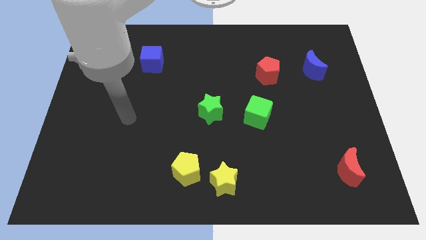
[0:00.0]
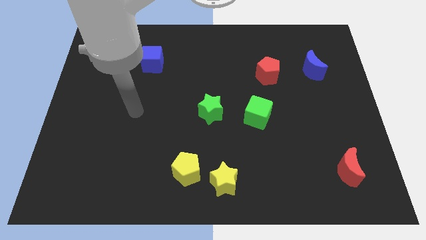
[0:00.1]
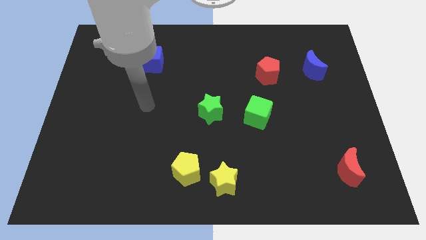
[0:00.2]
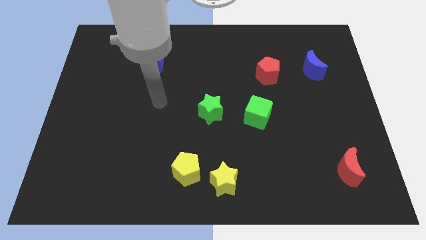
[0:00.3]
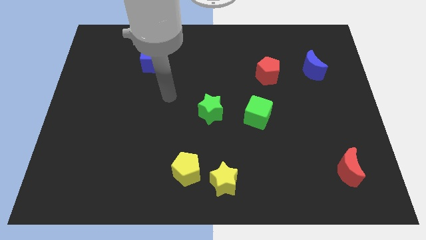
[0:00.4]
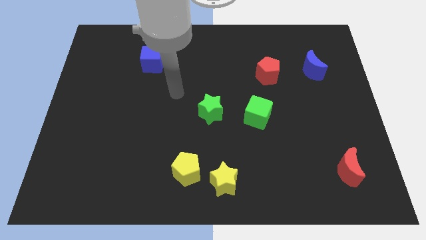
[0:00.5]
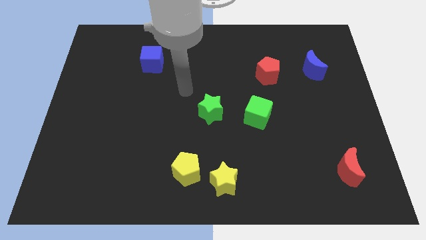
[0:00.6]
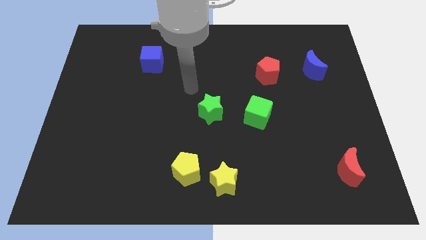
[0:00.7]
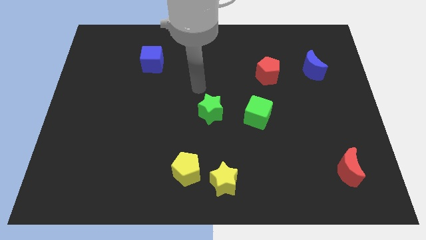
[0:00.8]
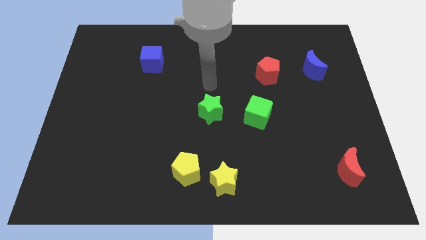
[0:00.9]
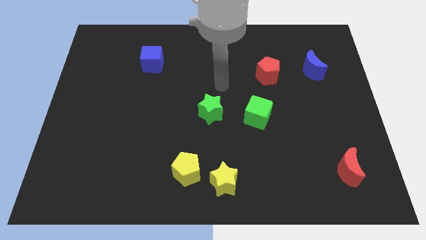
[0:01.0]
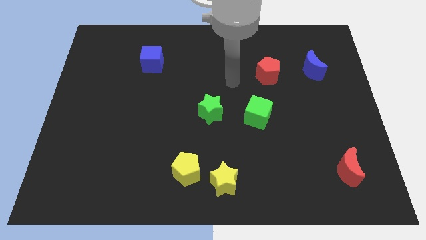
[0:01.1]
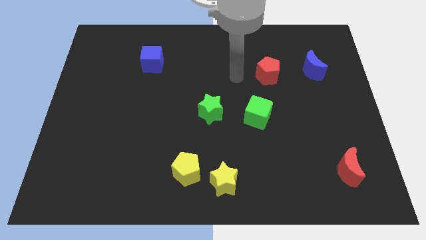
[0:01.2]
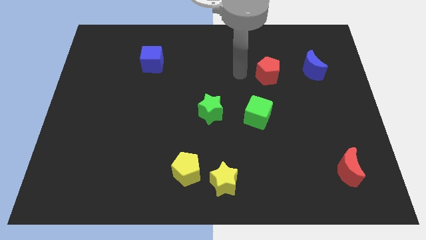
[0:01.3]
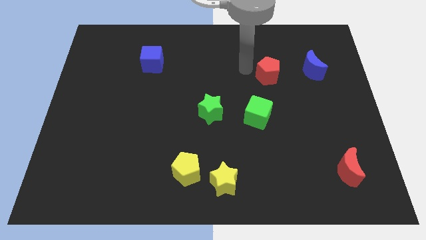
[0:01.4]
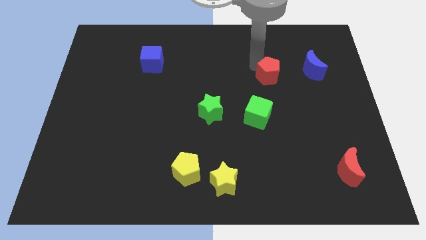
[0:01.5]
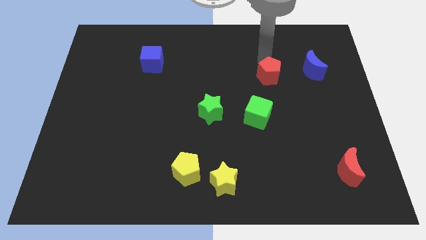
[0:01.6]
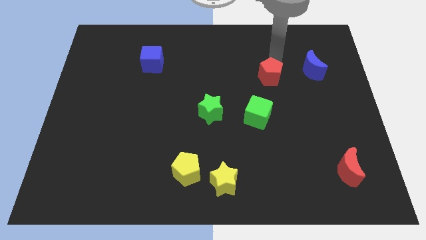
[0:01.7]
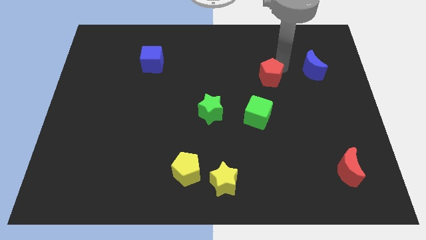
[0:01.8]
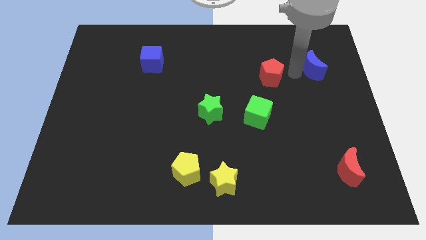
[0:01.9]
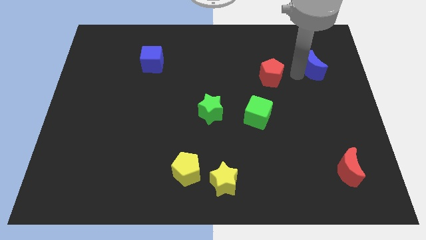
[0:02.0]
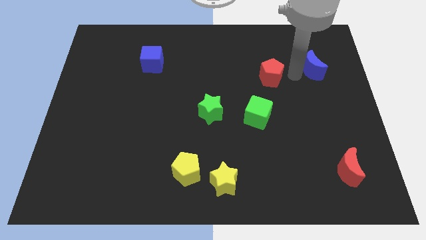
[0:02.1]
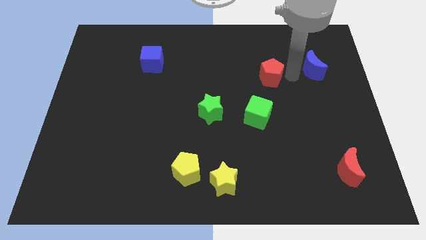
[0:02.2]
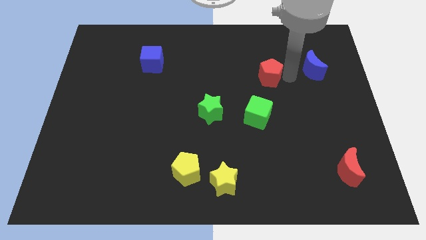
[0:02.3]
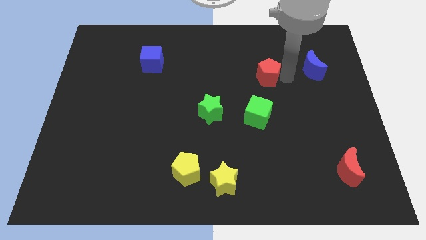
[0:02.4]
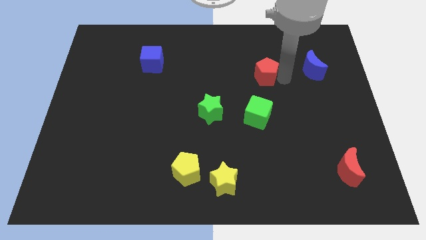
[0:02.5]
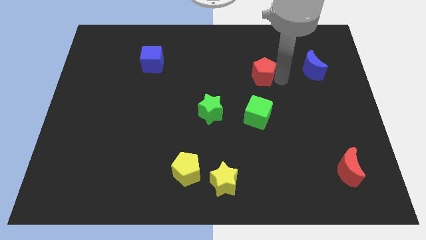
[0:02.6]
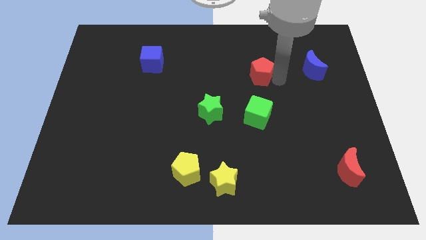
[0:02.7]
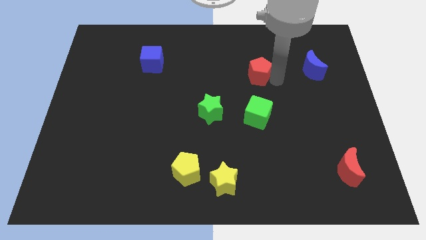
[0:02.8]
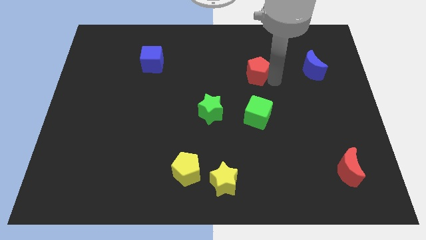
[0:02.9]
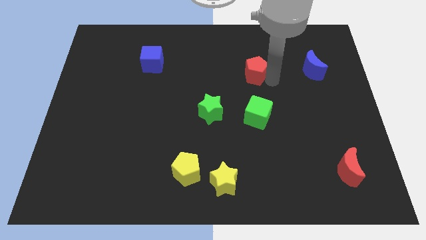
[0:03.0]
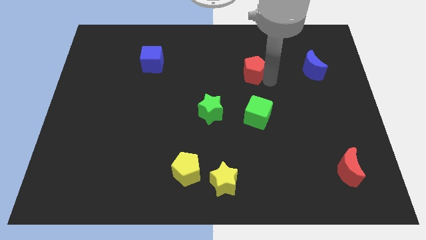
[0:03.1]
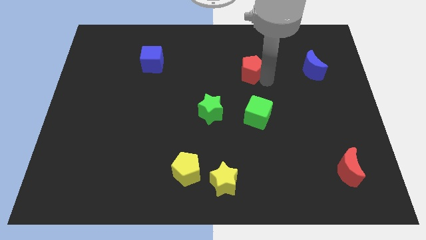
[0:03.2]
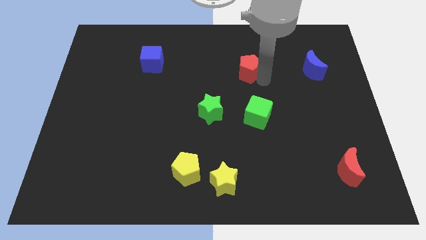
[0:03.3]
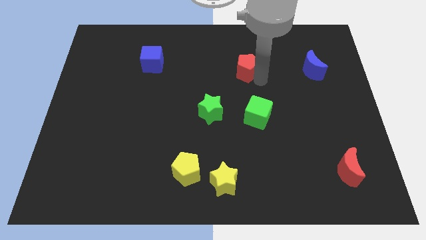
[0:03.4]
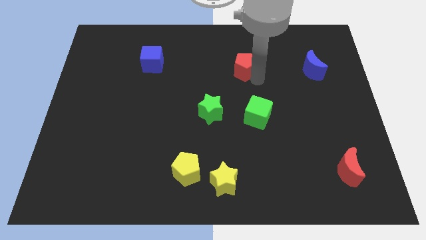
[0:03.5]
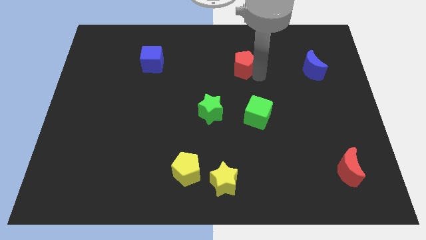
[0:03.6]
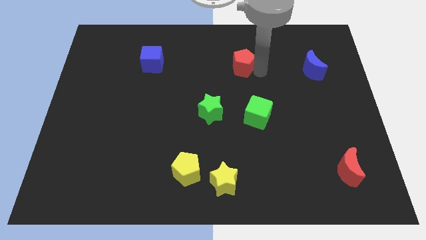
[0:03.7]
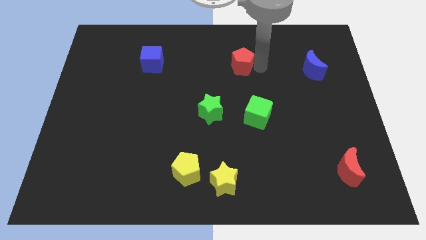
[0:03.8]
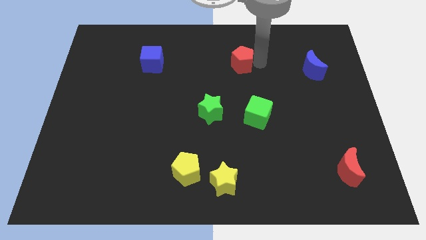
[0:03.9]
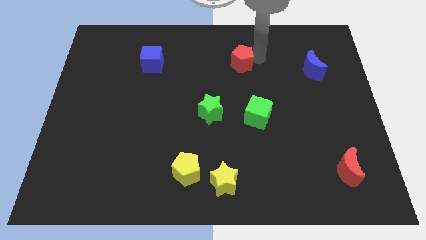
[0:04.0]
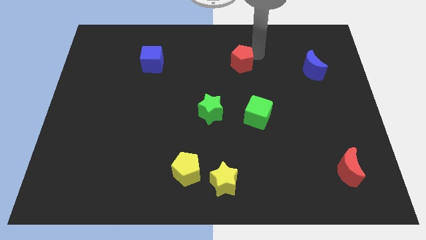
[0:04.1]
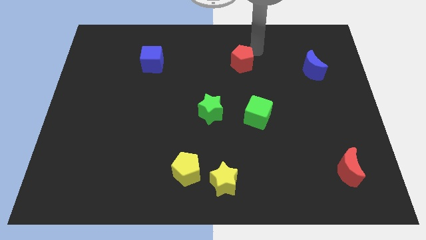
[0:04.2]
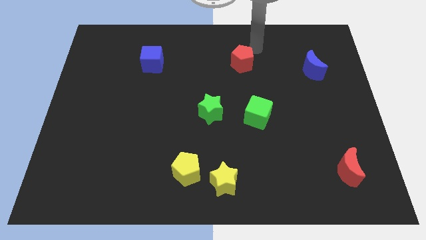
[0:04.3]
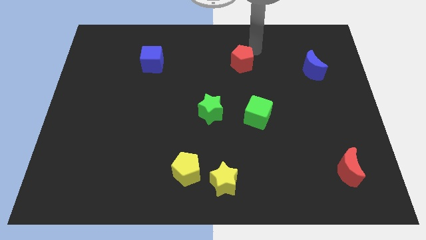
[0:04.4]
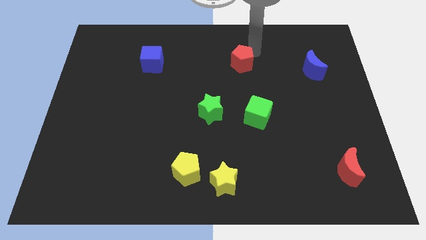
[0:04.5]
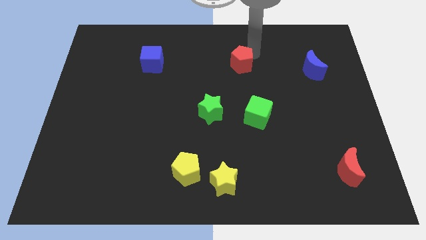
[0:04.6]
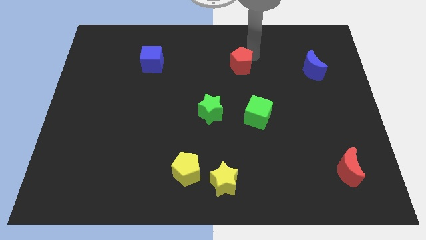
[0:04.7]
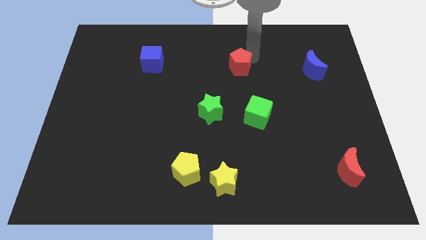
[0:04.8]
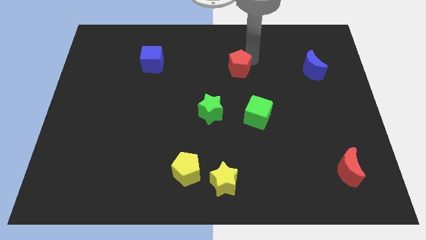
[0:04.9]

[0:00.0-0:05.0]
push the red pentagon left somewhat

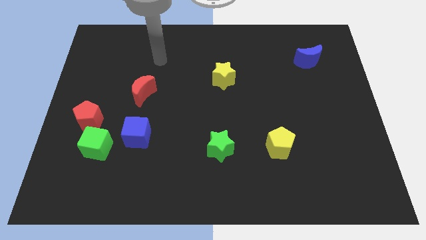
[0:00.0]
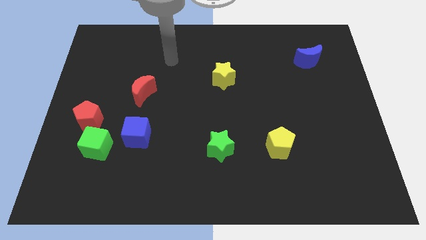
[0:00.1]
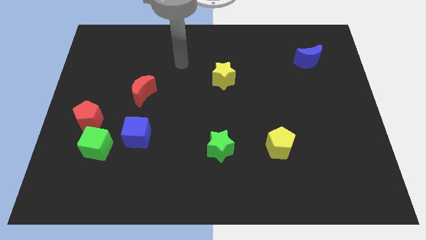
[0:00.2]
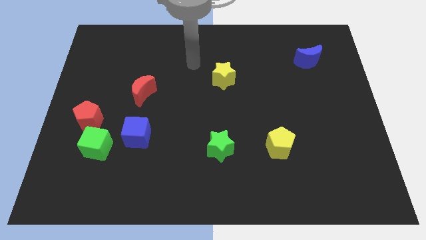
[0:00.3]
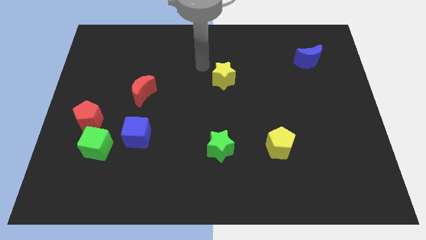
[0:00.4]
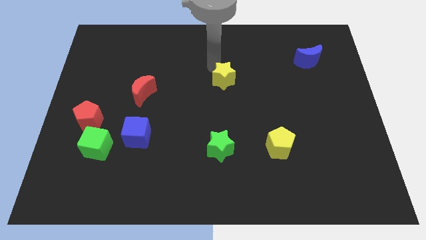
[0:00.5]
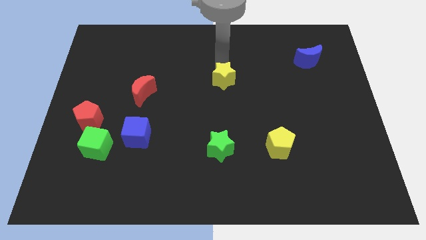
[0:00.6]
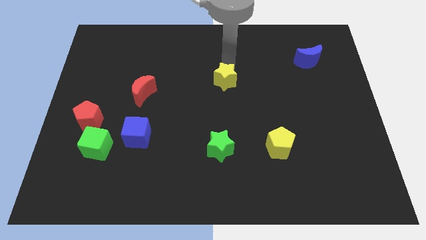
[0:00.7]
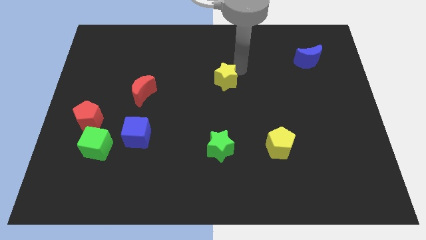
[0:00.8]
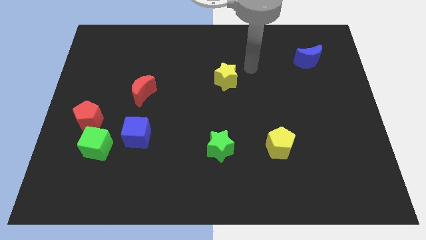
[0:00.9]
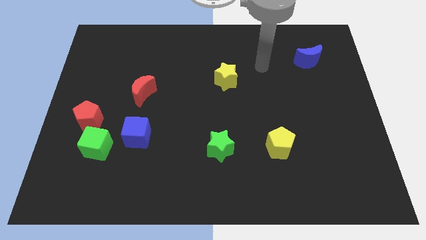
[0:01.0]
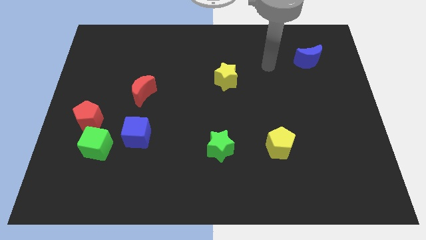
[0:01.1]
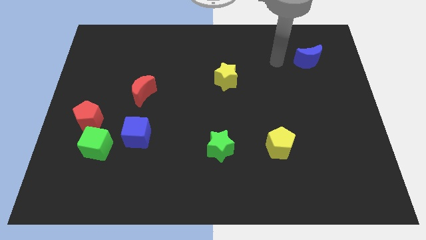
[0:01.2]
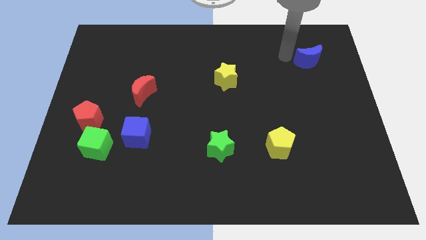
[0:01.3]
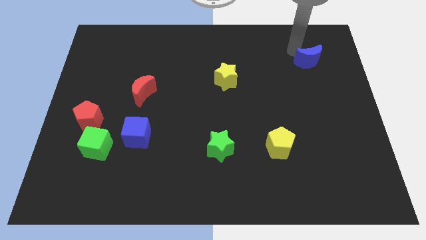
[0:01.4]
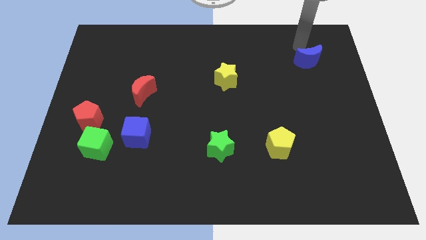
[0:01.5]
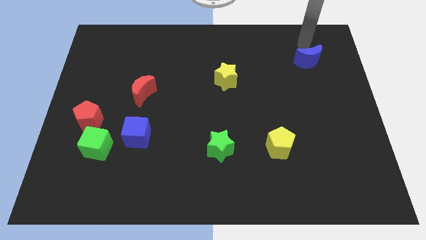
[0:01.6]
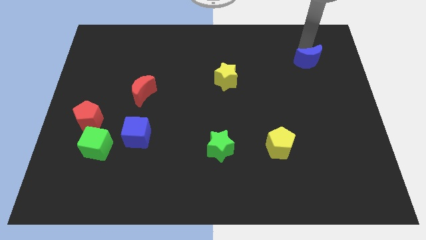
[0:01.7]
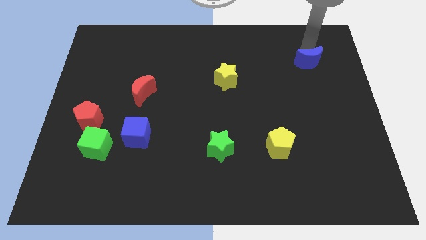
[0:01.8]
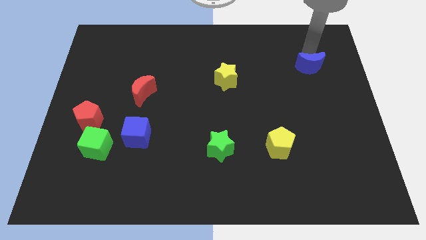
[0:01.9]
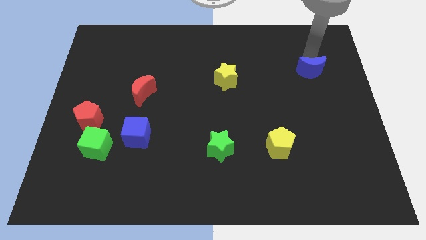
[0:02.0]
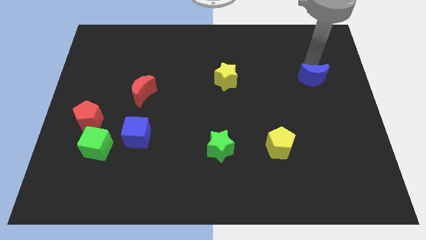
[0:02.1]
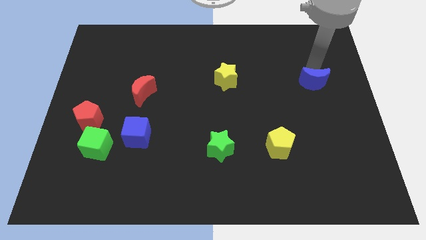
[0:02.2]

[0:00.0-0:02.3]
slightly slide the blue moon downwards

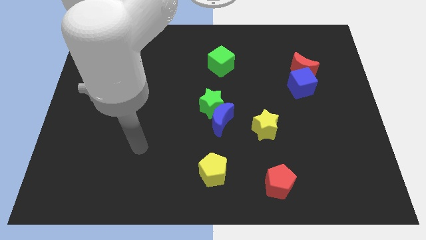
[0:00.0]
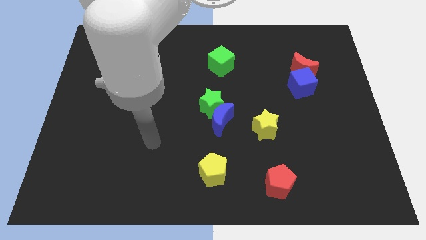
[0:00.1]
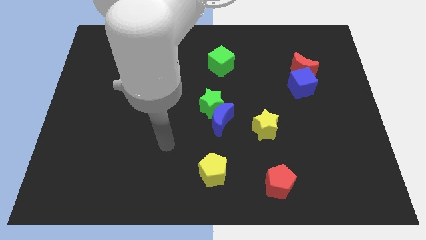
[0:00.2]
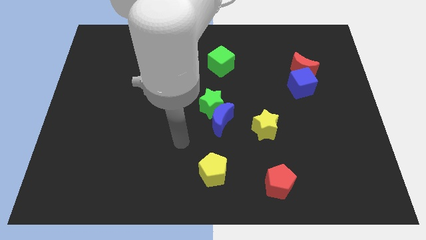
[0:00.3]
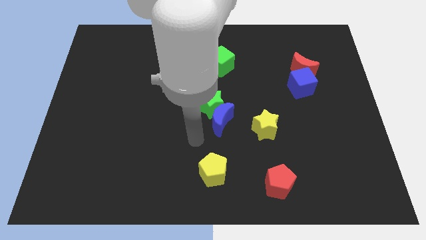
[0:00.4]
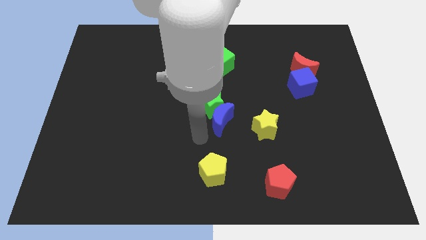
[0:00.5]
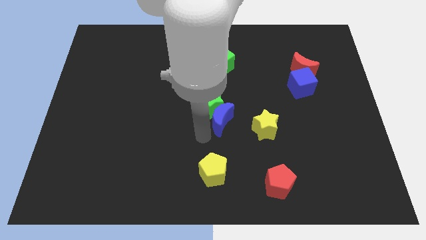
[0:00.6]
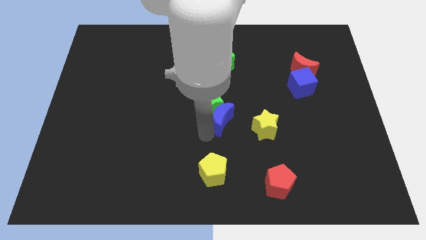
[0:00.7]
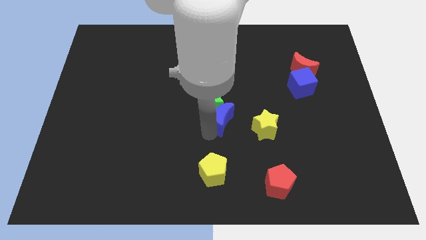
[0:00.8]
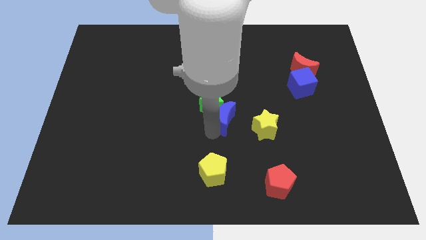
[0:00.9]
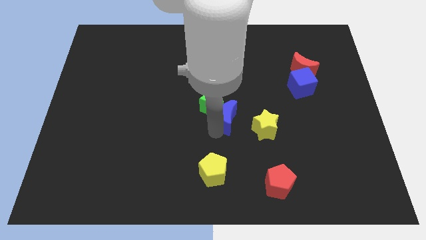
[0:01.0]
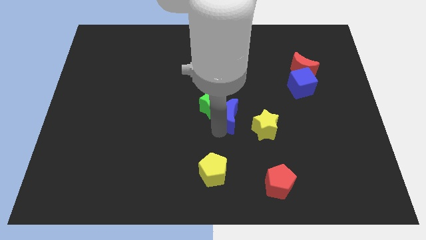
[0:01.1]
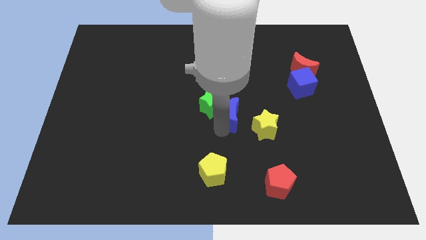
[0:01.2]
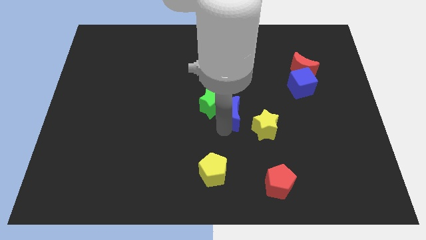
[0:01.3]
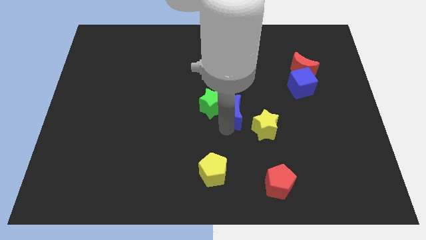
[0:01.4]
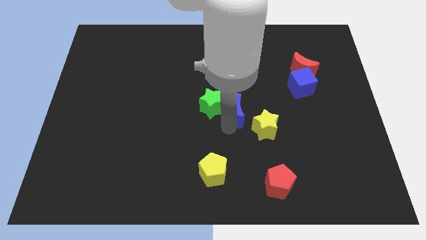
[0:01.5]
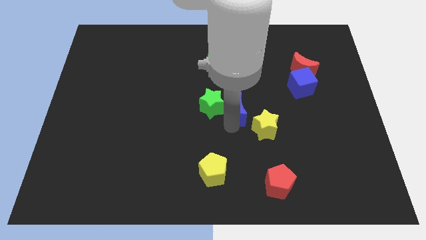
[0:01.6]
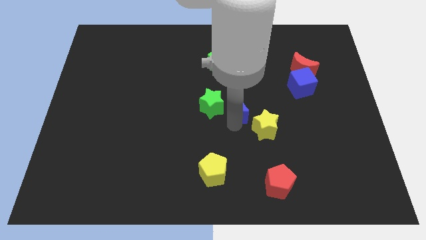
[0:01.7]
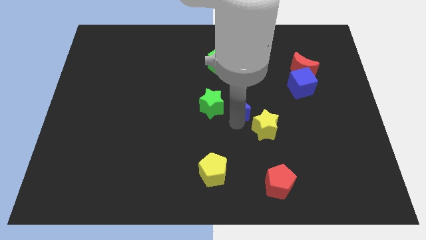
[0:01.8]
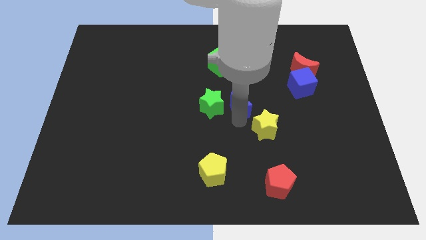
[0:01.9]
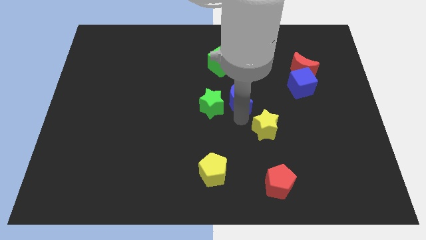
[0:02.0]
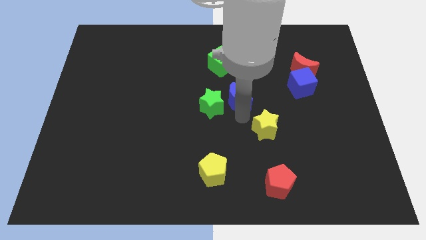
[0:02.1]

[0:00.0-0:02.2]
slightly slide the blue moon diagonally up and right
